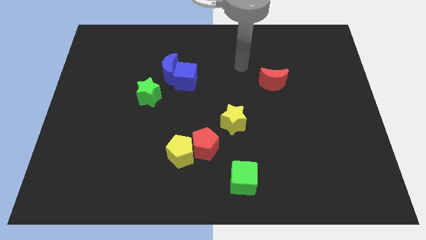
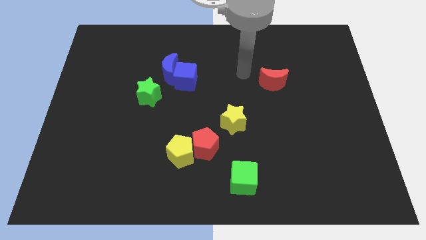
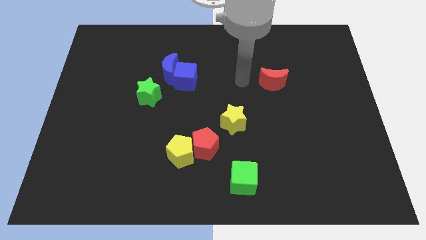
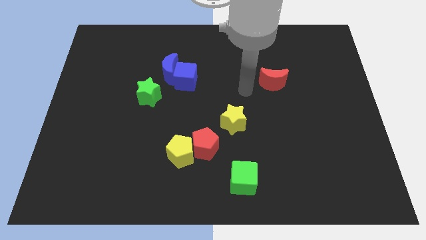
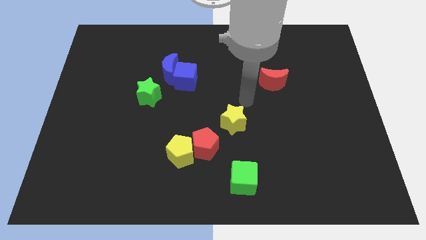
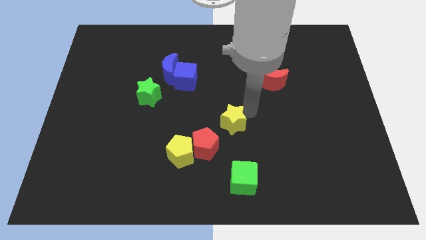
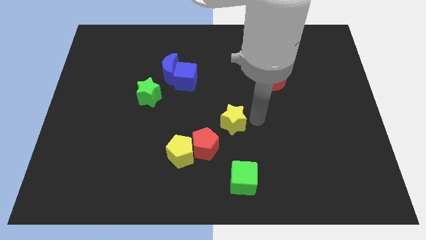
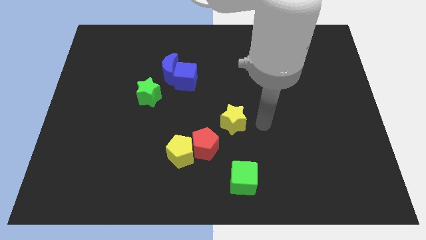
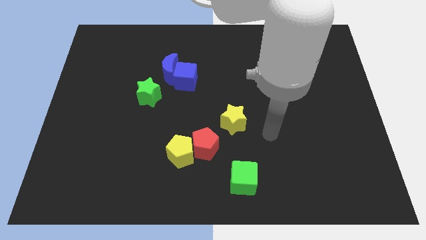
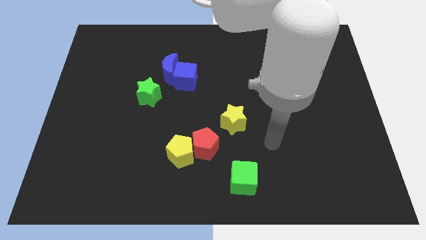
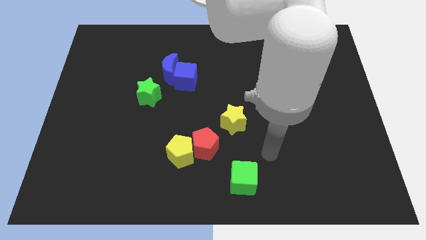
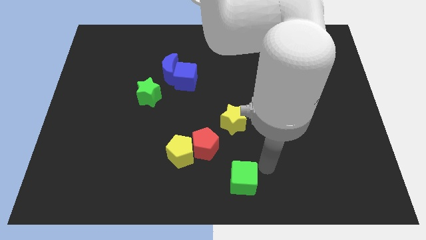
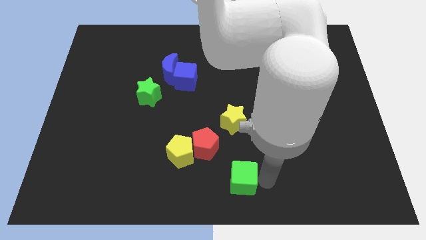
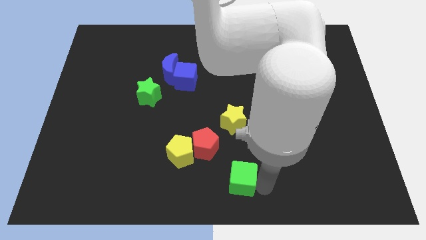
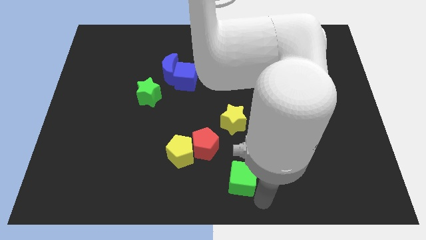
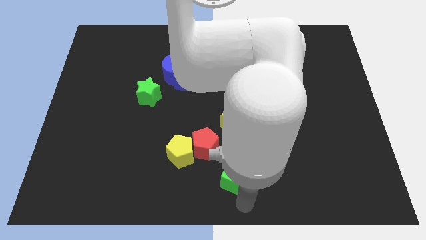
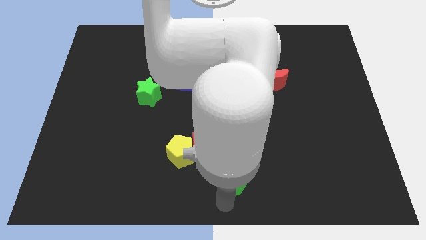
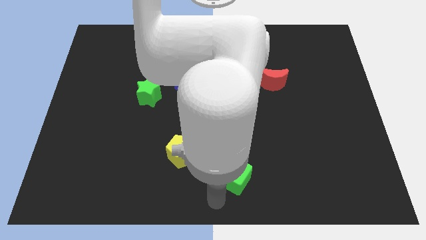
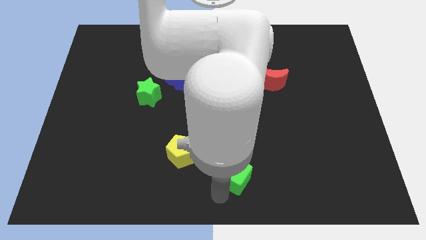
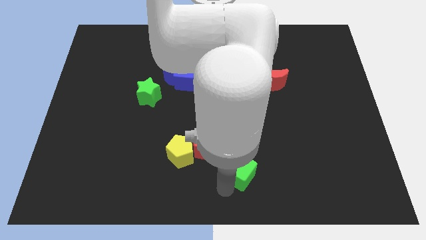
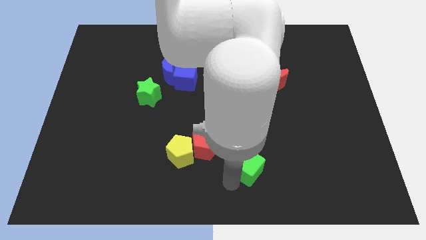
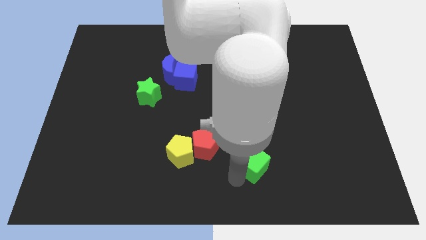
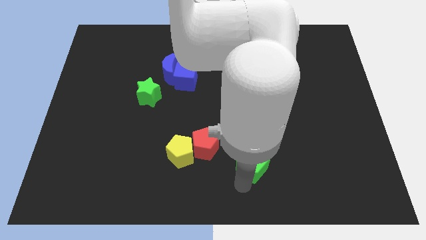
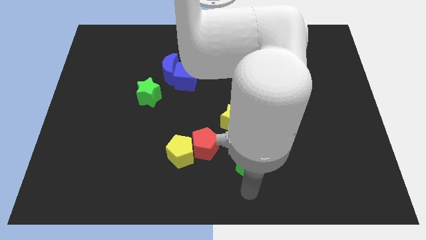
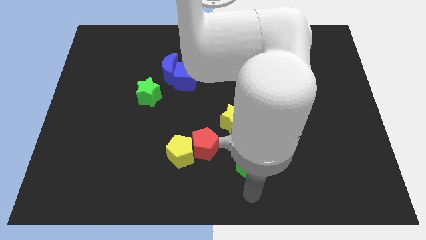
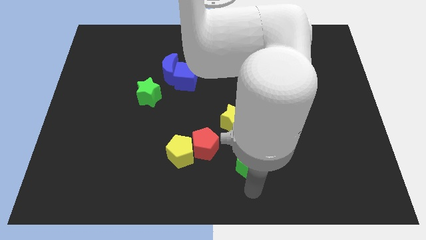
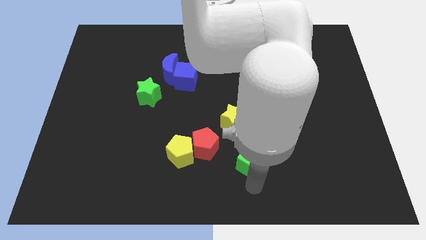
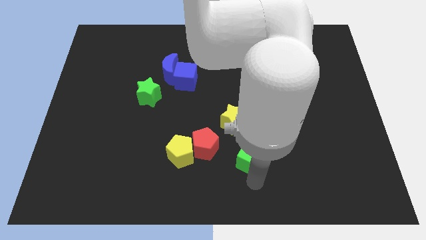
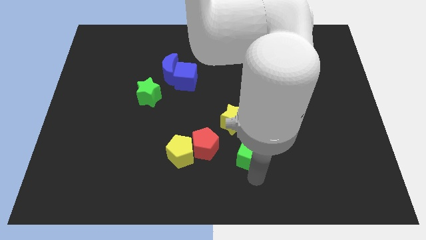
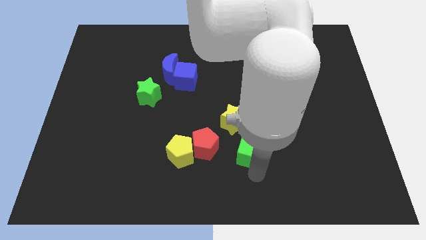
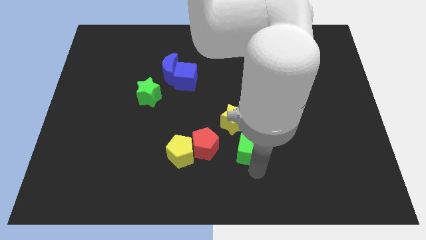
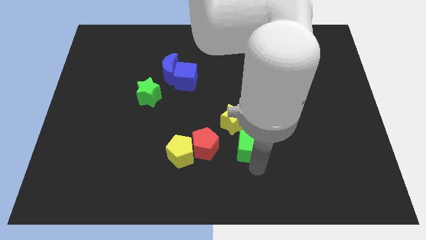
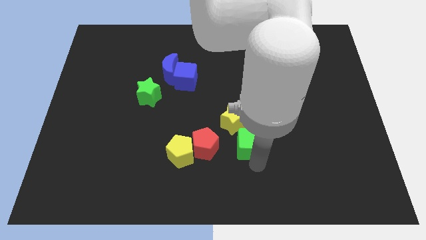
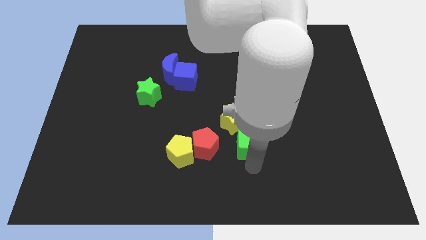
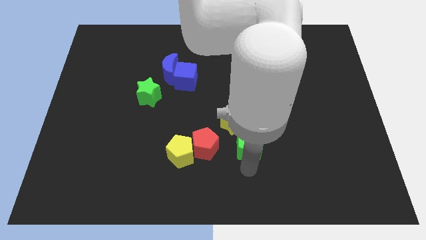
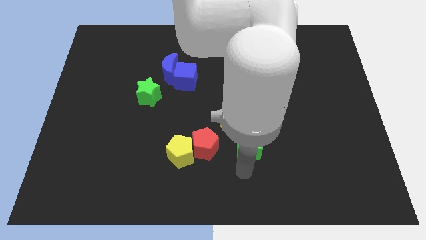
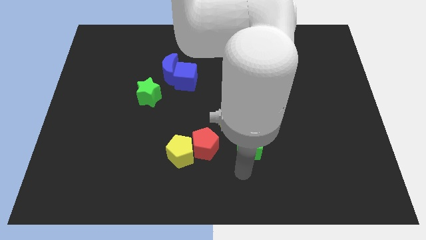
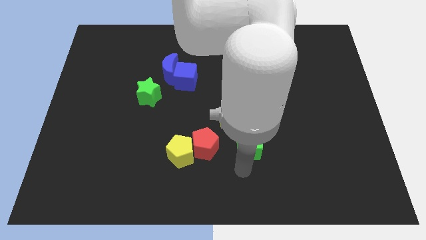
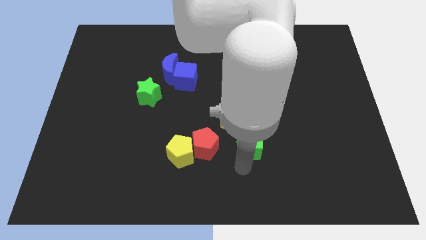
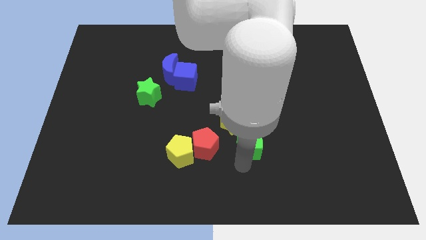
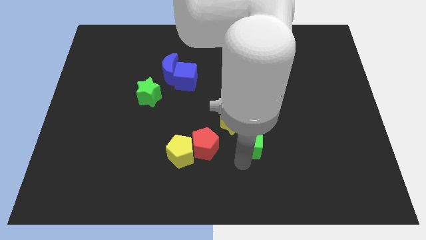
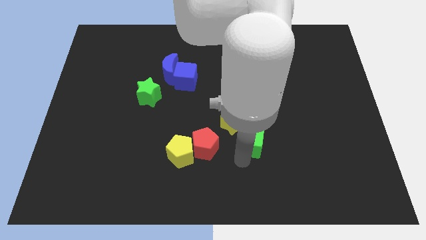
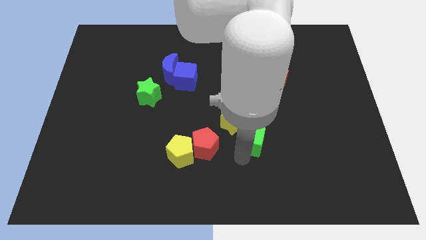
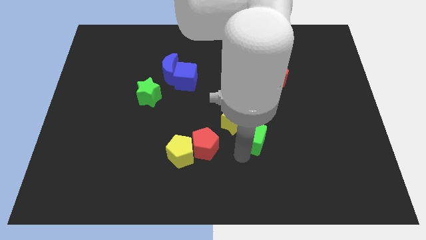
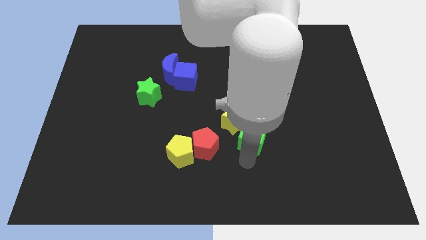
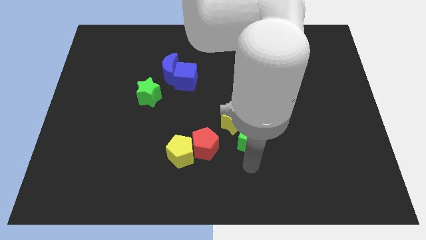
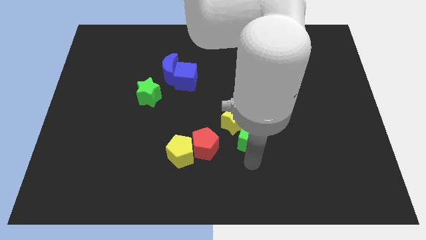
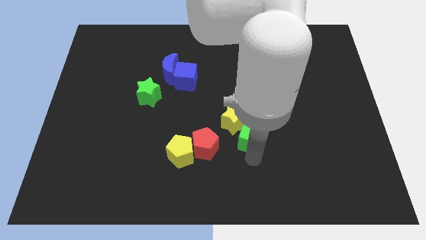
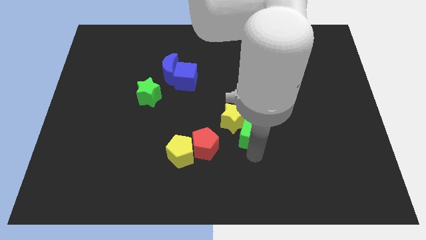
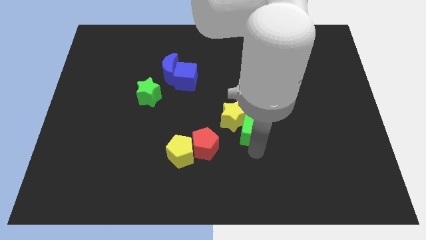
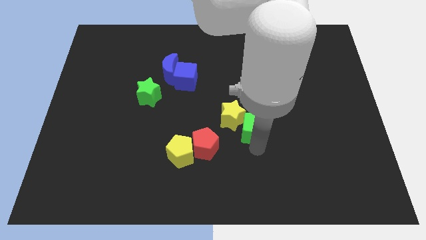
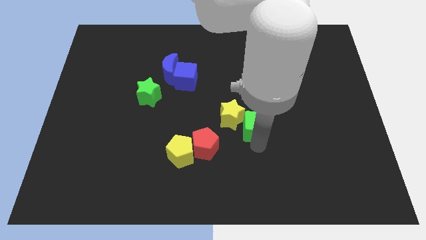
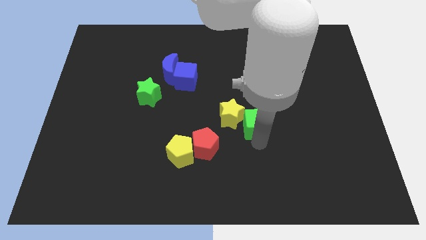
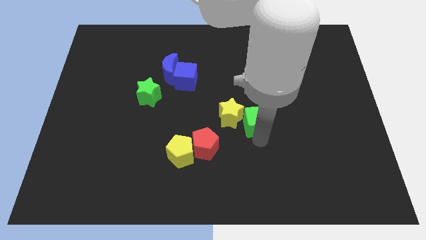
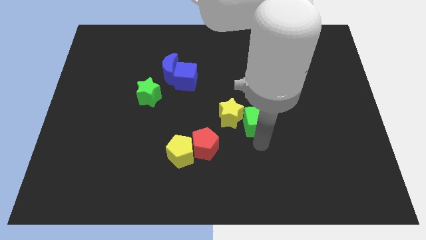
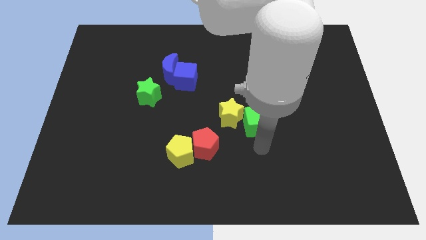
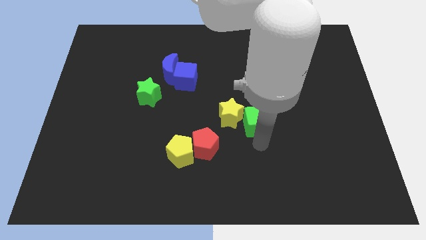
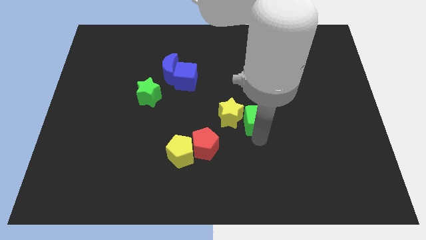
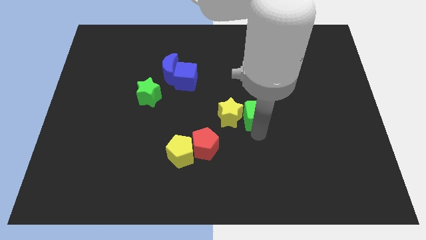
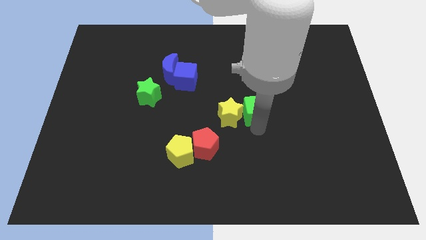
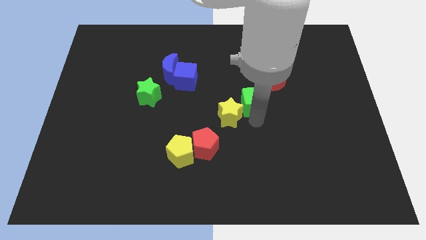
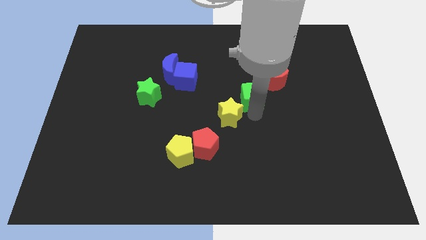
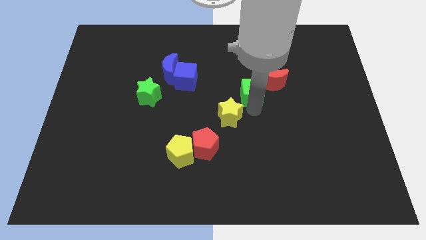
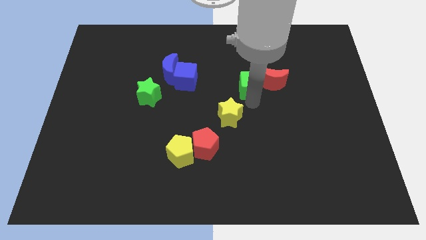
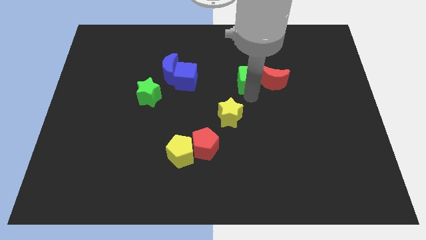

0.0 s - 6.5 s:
push the green cube diagonally up and to the left of the red moon
